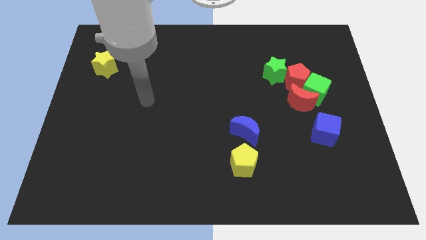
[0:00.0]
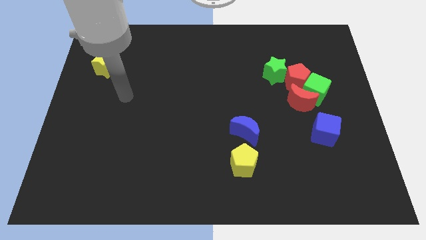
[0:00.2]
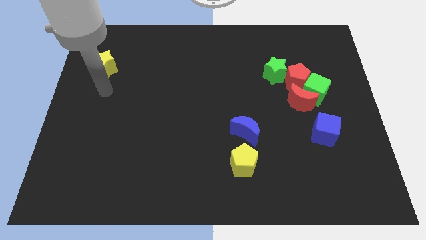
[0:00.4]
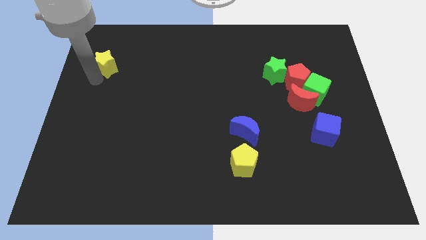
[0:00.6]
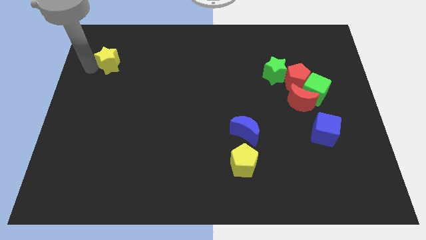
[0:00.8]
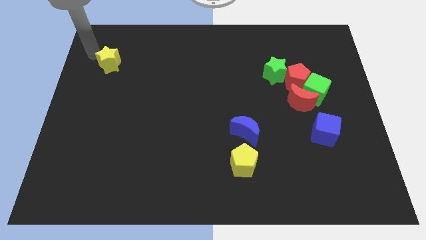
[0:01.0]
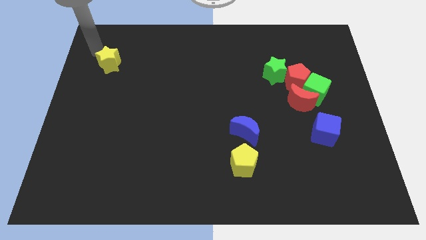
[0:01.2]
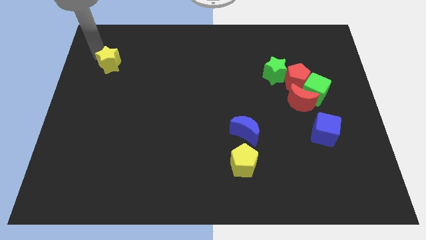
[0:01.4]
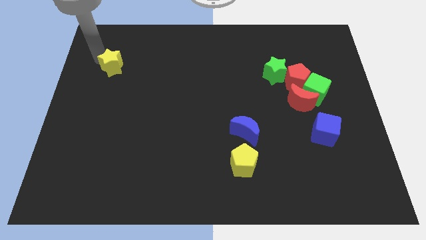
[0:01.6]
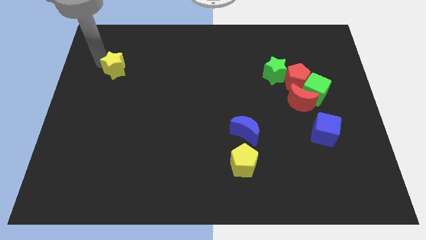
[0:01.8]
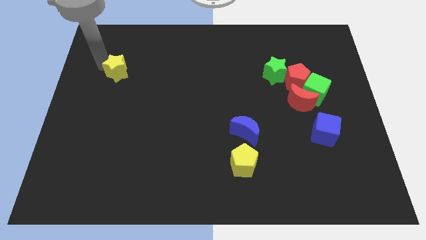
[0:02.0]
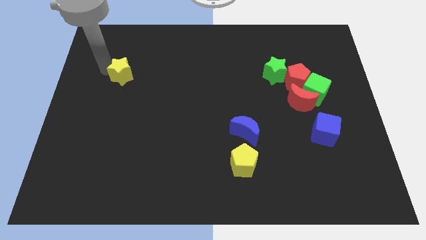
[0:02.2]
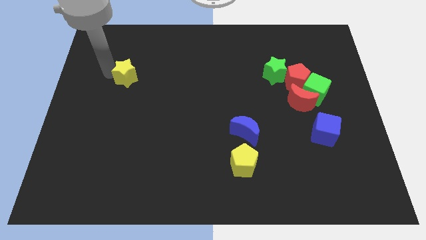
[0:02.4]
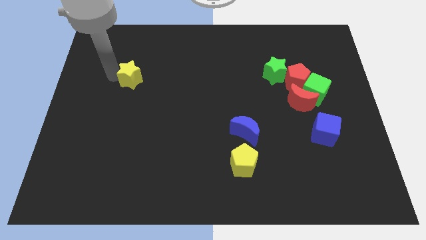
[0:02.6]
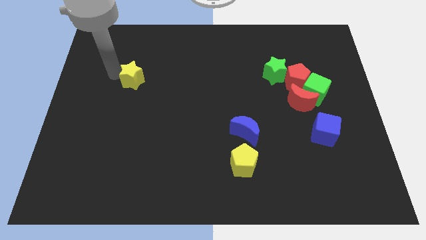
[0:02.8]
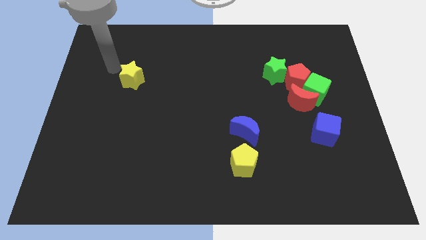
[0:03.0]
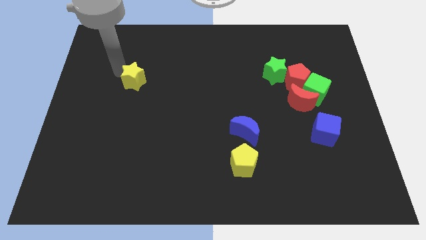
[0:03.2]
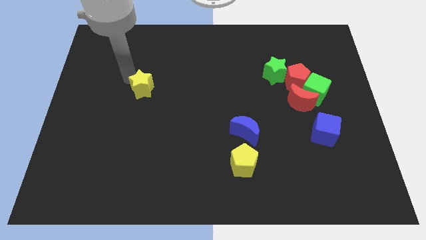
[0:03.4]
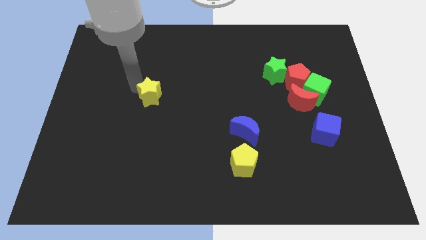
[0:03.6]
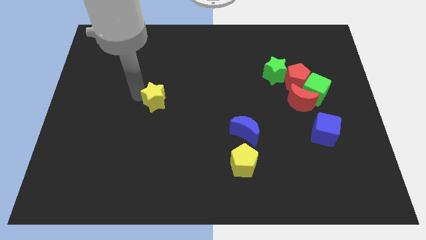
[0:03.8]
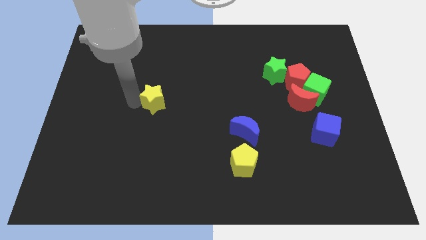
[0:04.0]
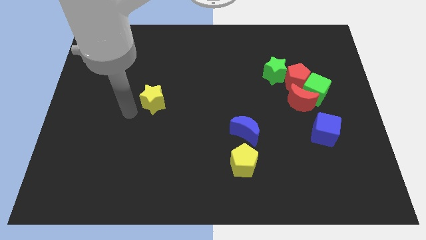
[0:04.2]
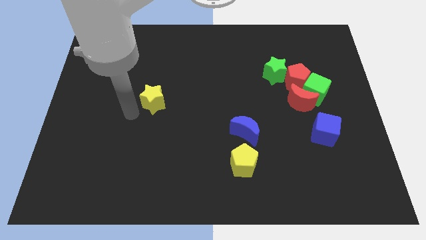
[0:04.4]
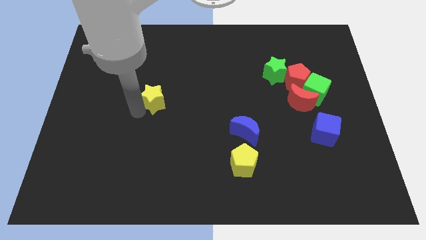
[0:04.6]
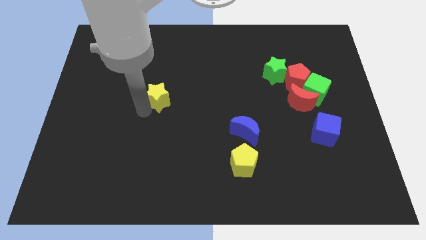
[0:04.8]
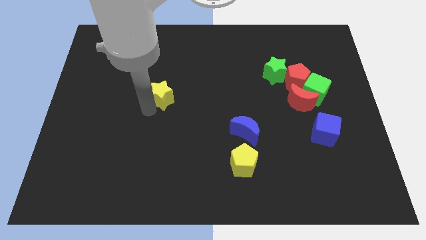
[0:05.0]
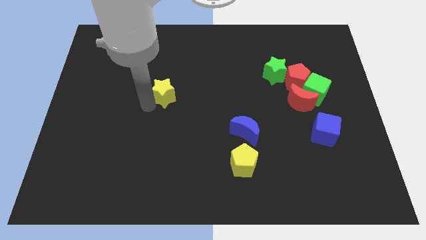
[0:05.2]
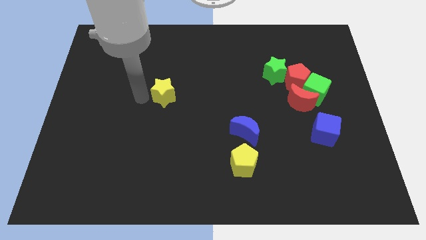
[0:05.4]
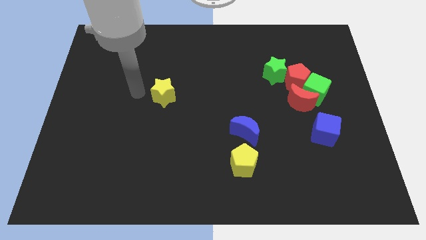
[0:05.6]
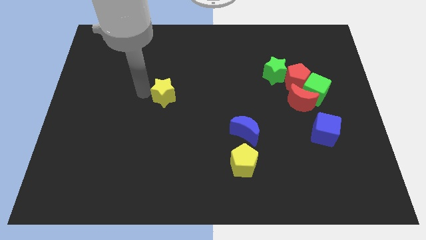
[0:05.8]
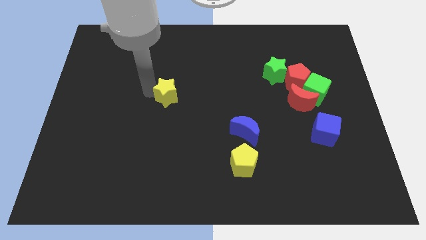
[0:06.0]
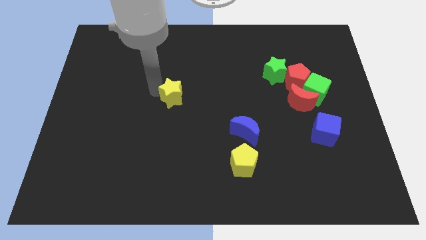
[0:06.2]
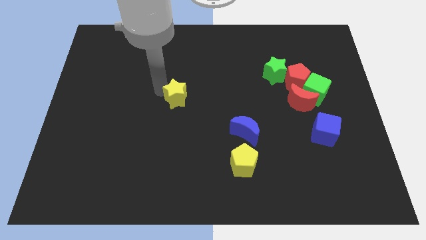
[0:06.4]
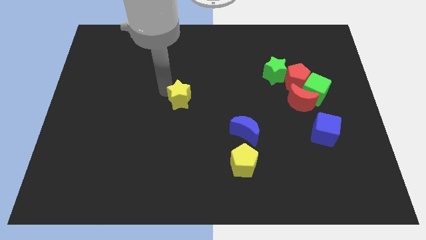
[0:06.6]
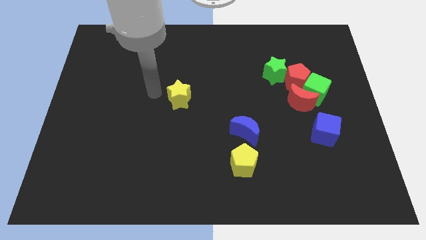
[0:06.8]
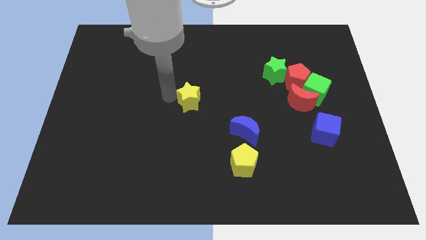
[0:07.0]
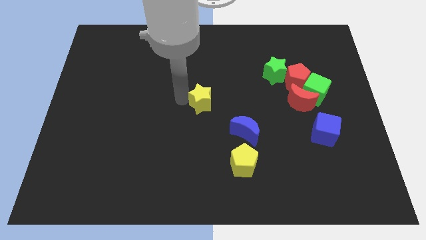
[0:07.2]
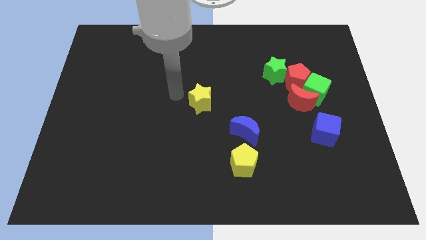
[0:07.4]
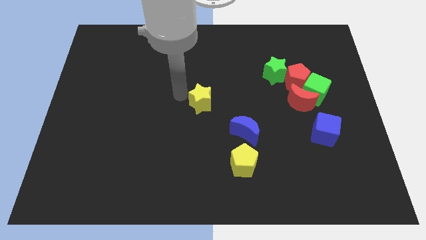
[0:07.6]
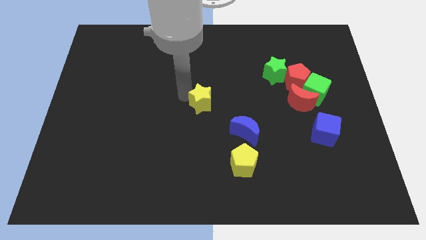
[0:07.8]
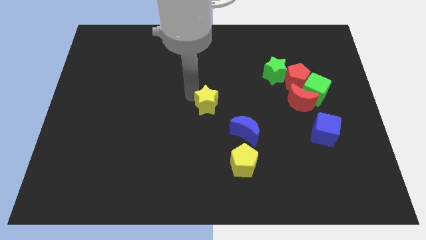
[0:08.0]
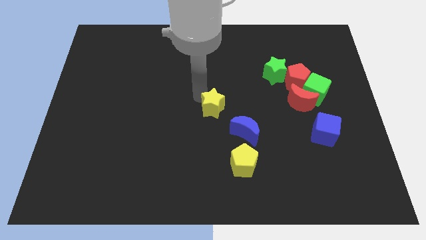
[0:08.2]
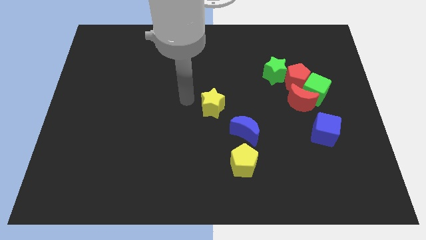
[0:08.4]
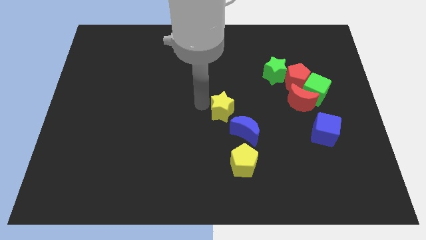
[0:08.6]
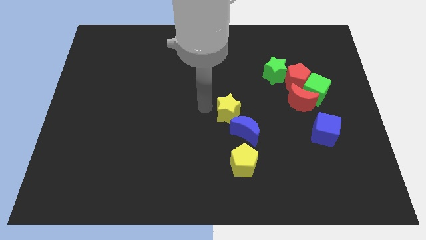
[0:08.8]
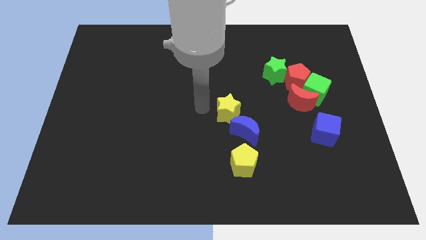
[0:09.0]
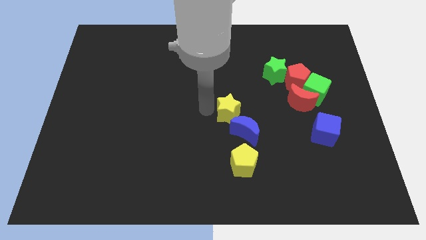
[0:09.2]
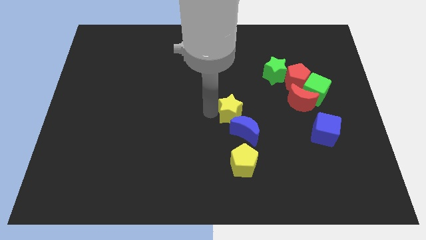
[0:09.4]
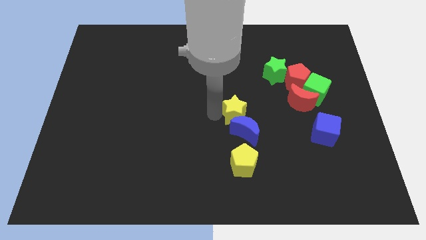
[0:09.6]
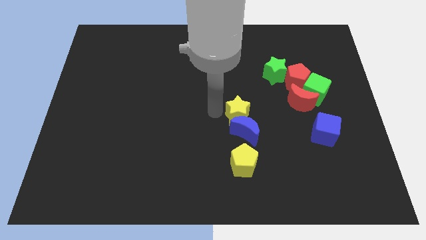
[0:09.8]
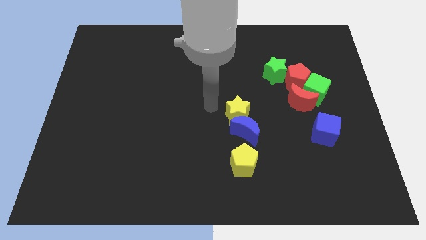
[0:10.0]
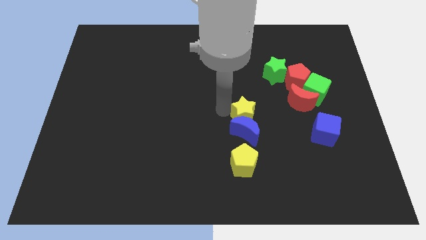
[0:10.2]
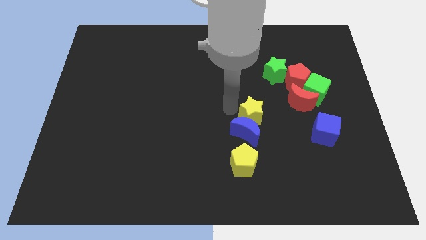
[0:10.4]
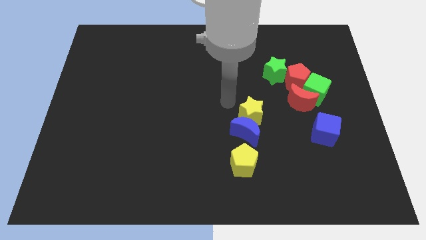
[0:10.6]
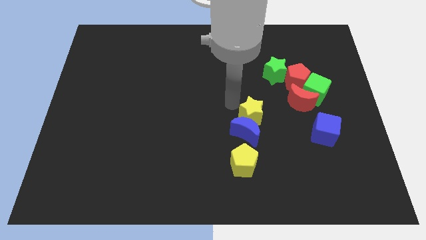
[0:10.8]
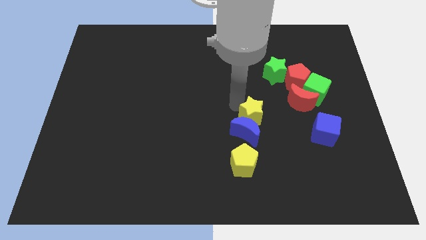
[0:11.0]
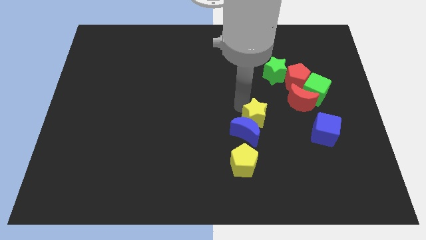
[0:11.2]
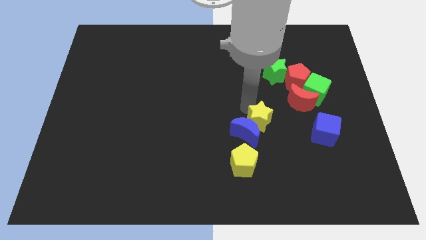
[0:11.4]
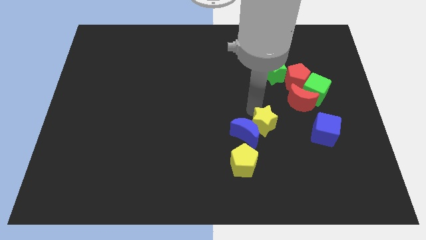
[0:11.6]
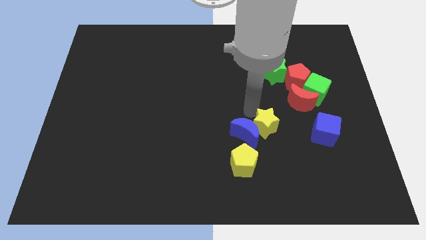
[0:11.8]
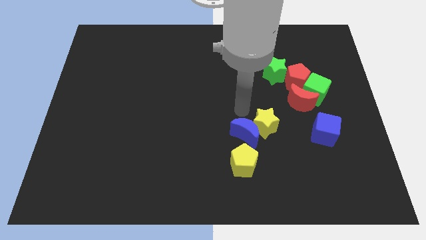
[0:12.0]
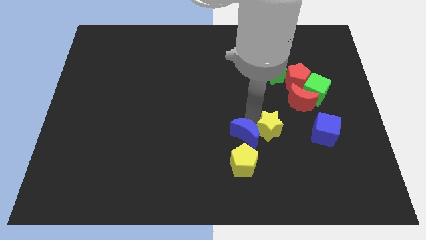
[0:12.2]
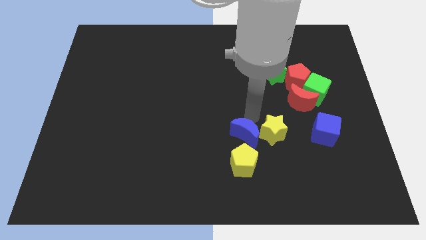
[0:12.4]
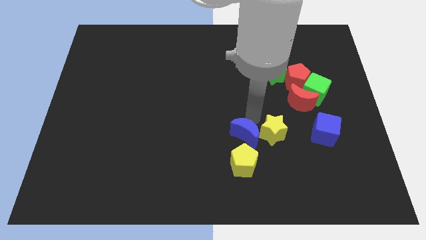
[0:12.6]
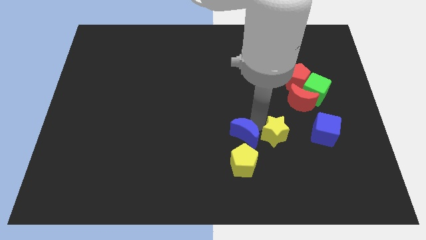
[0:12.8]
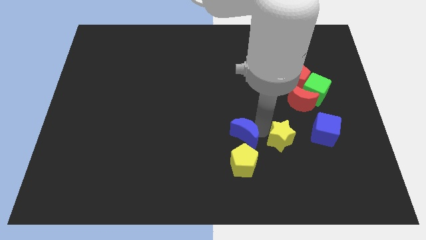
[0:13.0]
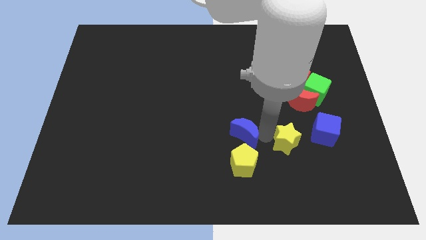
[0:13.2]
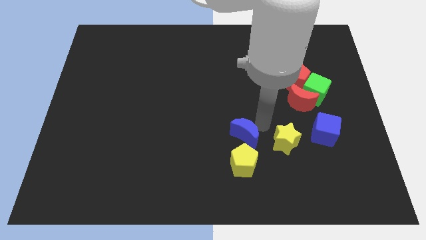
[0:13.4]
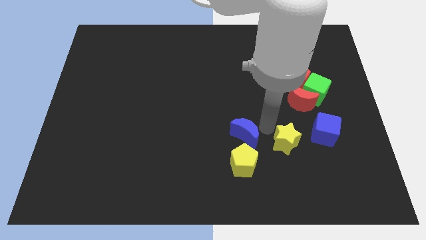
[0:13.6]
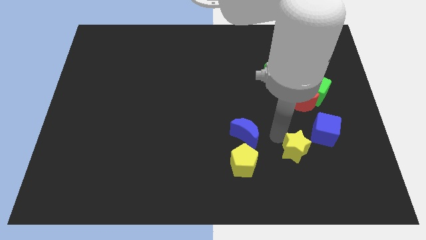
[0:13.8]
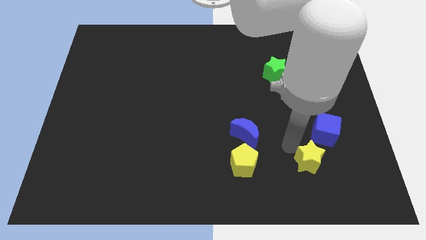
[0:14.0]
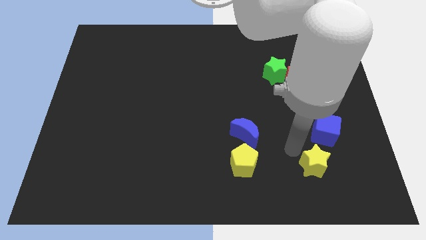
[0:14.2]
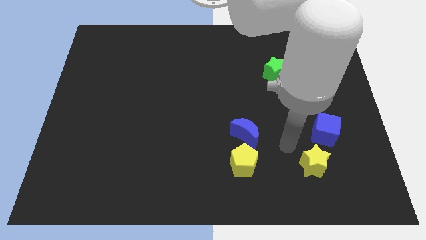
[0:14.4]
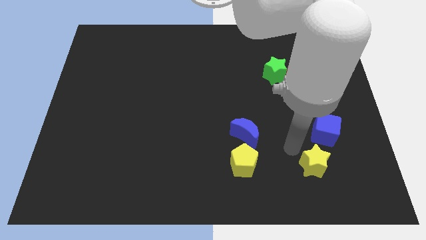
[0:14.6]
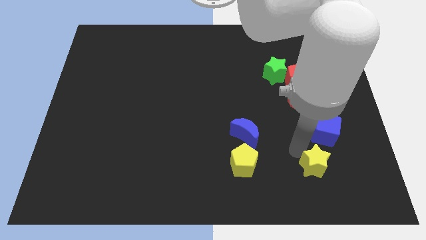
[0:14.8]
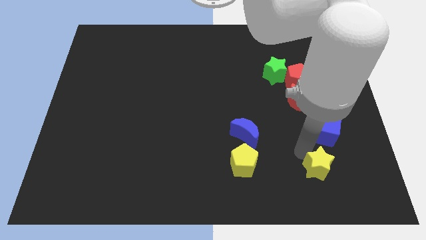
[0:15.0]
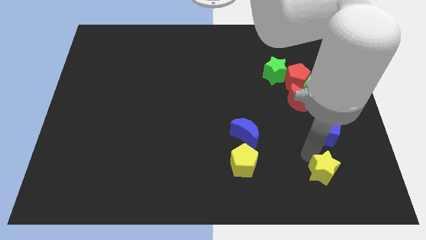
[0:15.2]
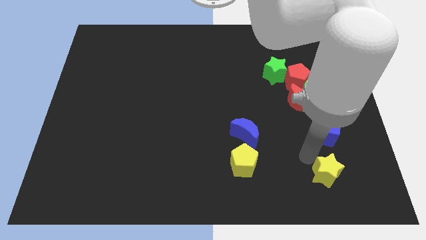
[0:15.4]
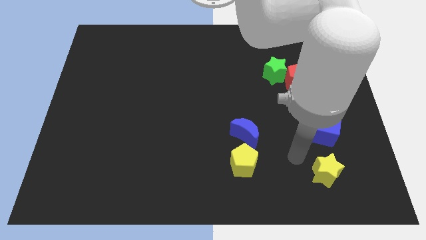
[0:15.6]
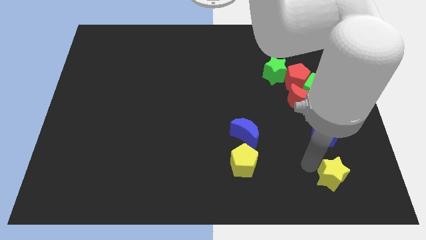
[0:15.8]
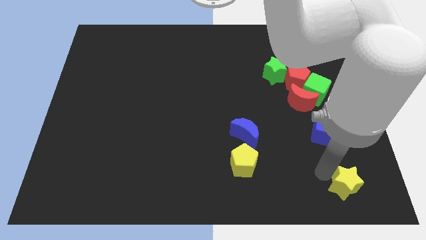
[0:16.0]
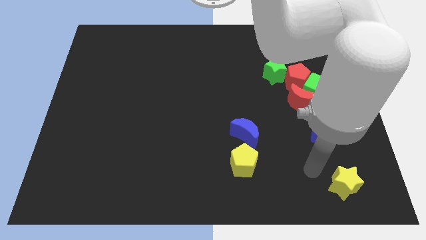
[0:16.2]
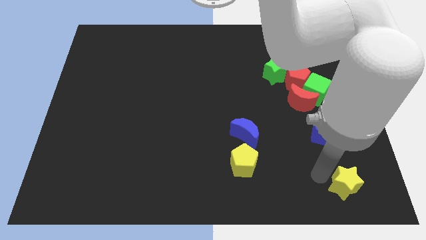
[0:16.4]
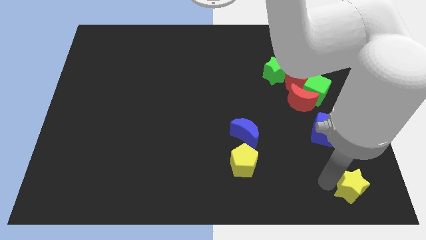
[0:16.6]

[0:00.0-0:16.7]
push the yellow star to the bottom right of the board
